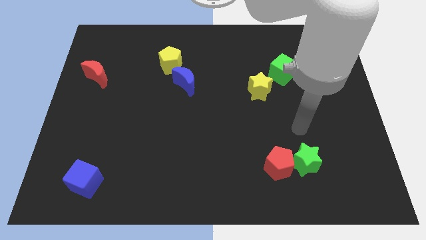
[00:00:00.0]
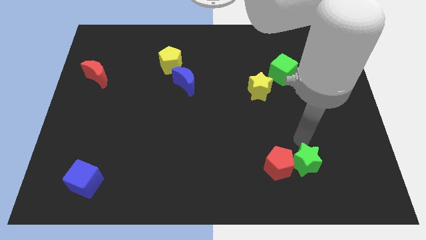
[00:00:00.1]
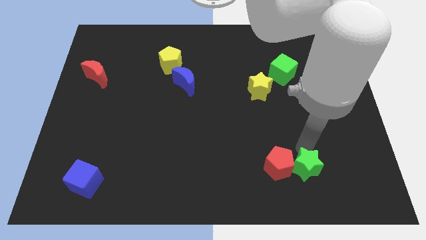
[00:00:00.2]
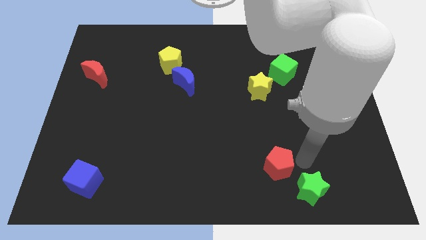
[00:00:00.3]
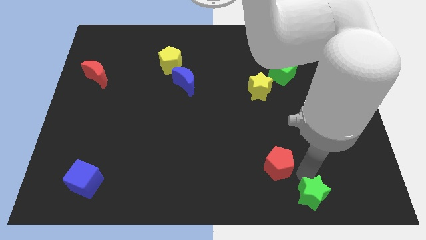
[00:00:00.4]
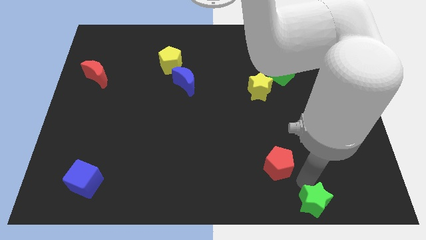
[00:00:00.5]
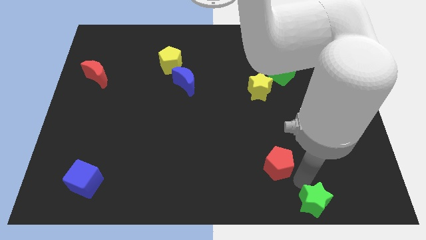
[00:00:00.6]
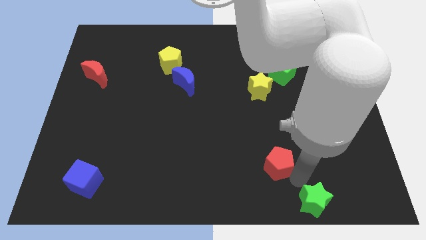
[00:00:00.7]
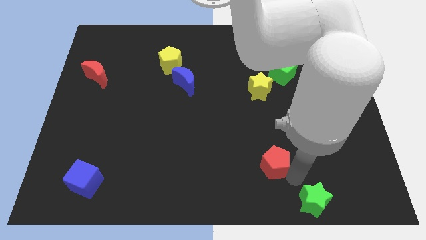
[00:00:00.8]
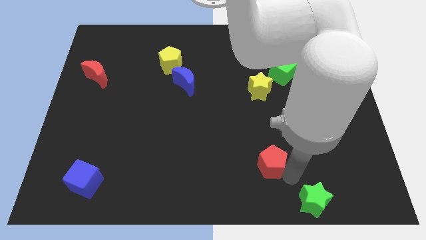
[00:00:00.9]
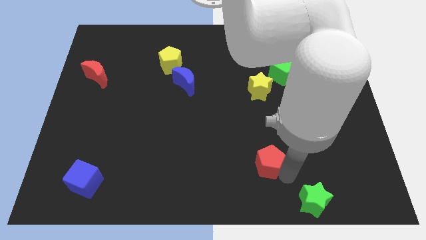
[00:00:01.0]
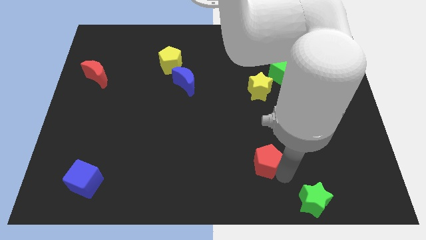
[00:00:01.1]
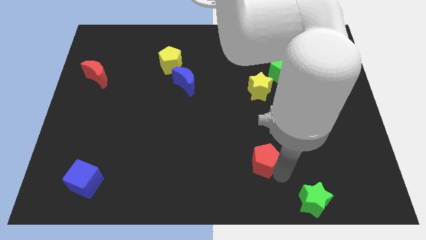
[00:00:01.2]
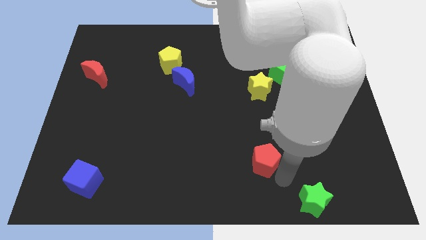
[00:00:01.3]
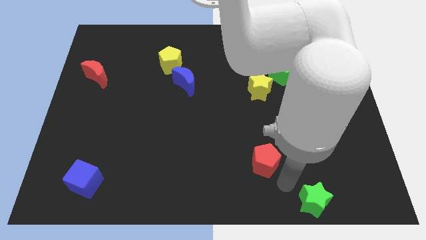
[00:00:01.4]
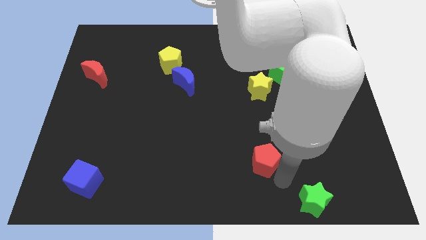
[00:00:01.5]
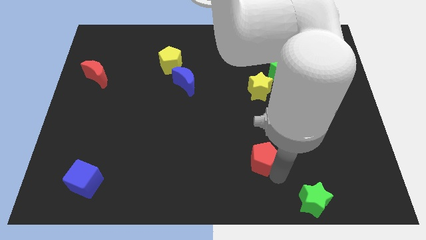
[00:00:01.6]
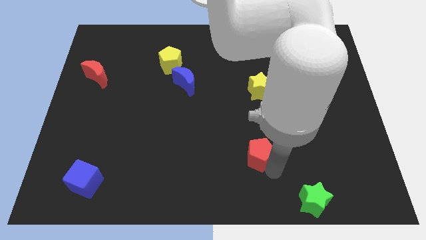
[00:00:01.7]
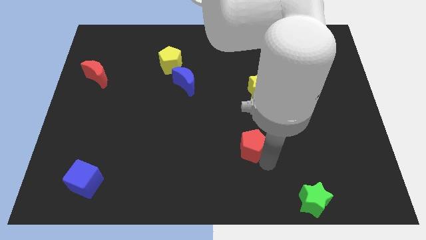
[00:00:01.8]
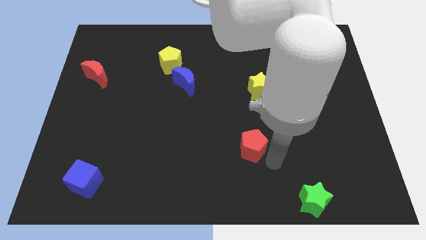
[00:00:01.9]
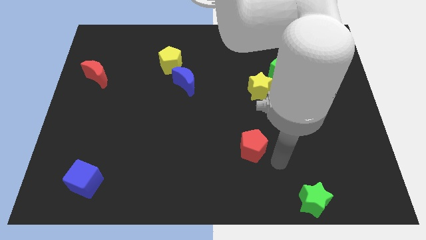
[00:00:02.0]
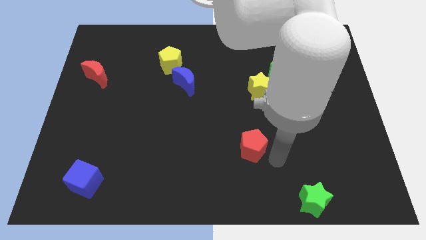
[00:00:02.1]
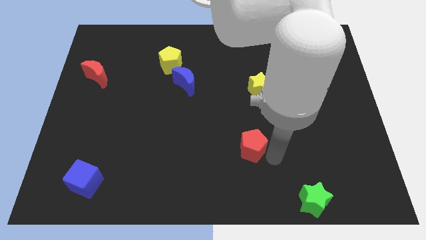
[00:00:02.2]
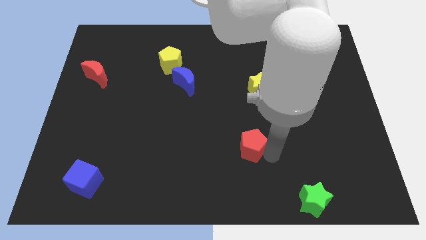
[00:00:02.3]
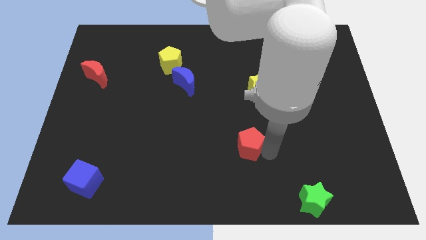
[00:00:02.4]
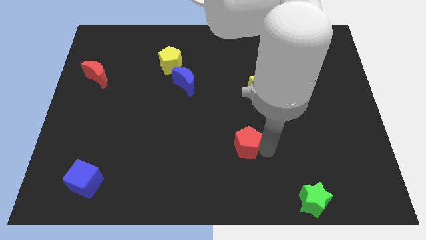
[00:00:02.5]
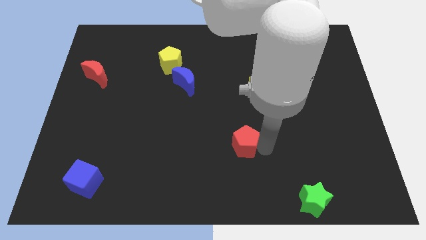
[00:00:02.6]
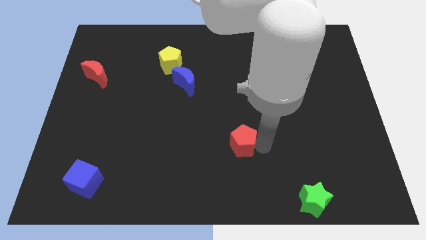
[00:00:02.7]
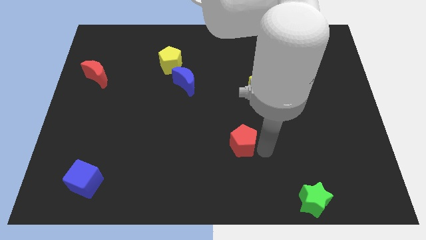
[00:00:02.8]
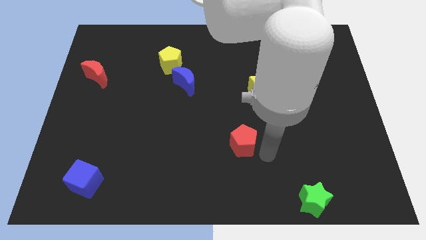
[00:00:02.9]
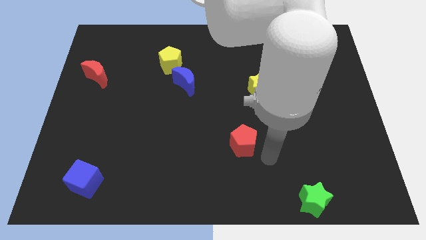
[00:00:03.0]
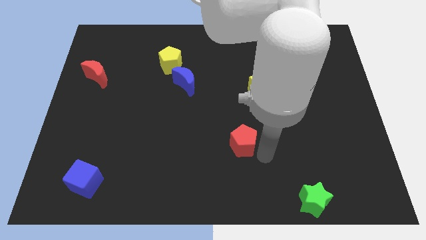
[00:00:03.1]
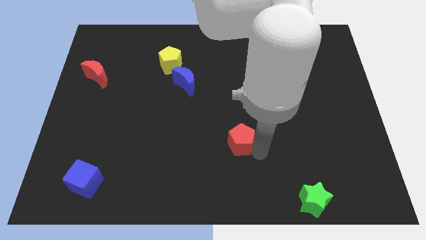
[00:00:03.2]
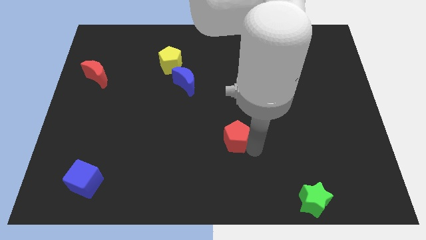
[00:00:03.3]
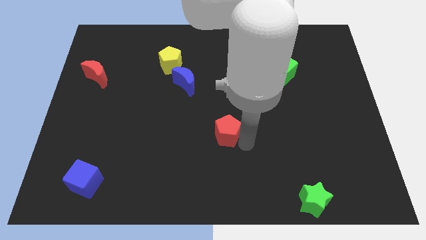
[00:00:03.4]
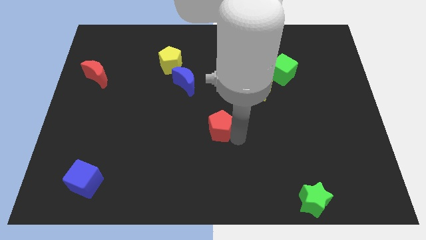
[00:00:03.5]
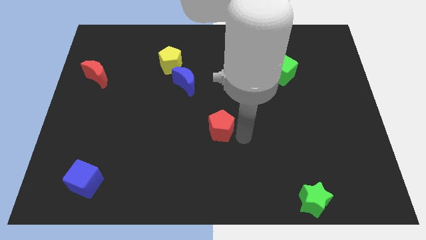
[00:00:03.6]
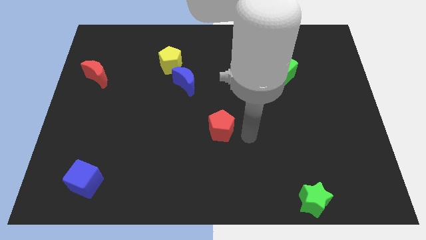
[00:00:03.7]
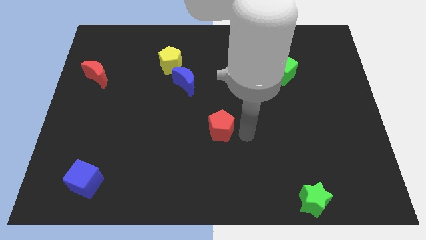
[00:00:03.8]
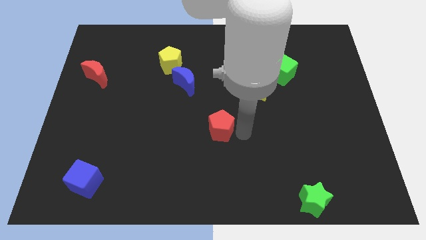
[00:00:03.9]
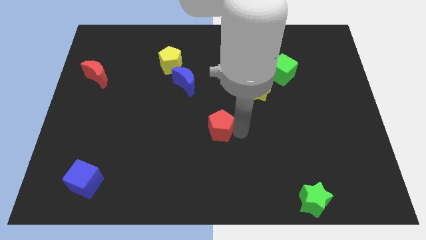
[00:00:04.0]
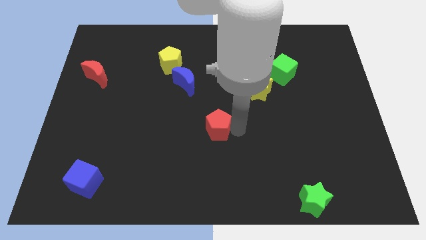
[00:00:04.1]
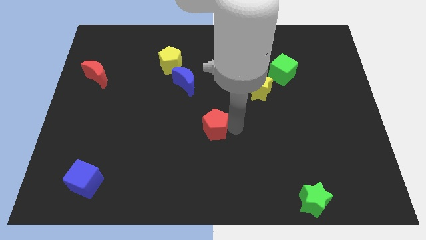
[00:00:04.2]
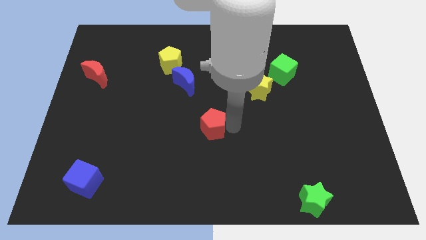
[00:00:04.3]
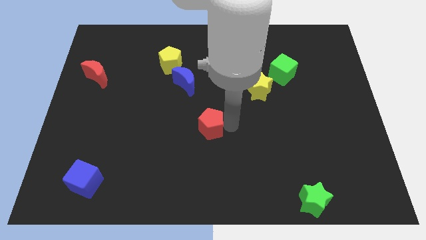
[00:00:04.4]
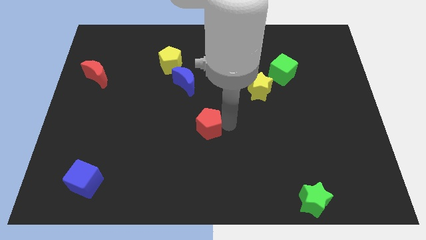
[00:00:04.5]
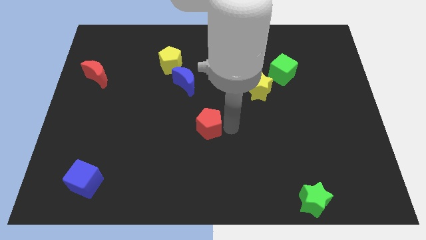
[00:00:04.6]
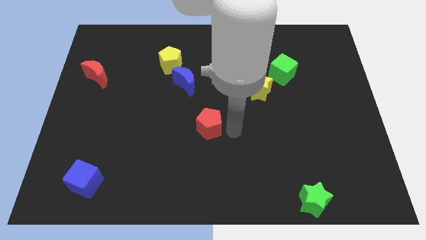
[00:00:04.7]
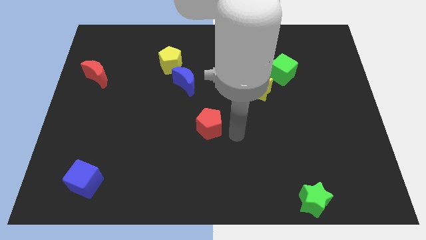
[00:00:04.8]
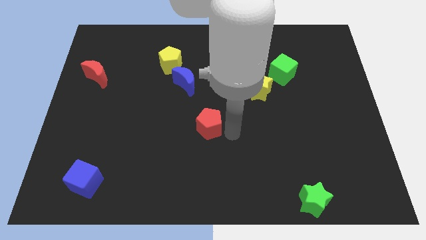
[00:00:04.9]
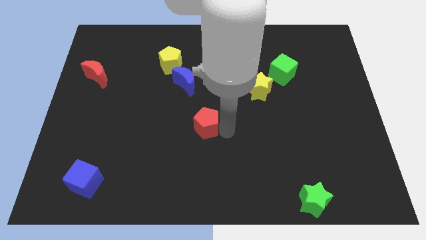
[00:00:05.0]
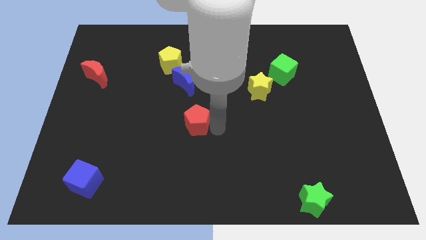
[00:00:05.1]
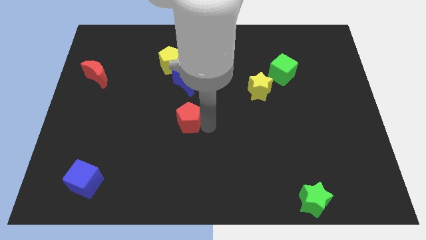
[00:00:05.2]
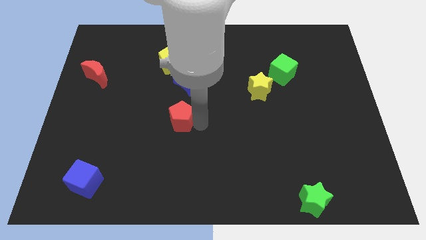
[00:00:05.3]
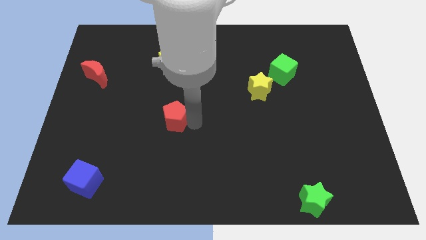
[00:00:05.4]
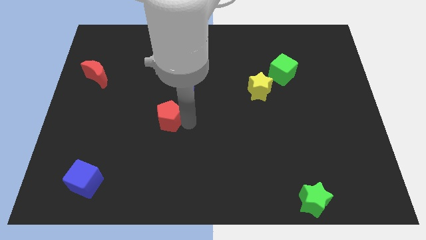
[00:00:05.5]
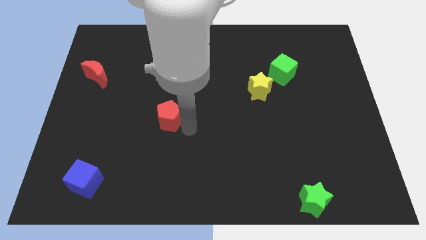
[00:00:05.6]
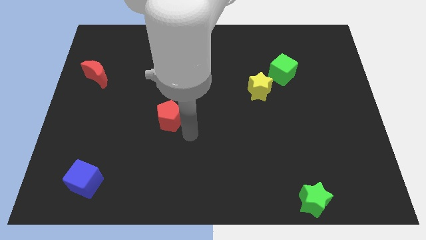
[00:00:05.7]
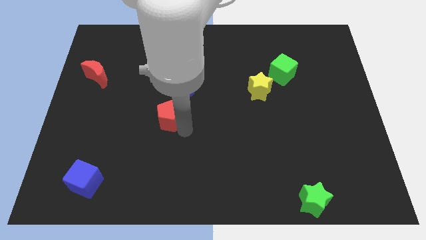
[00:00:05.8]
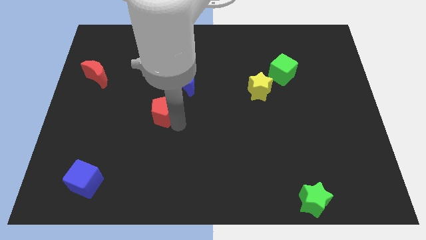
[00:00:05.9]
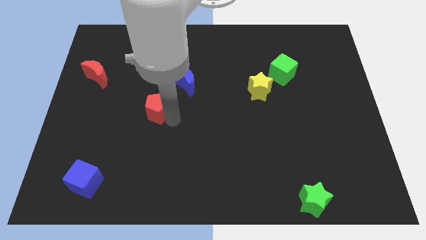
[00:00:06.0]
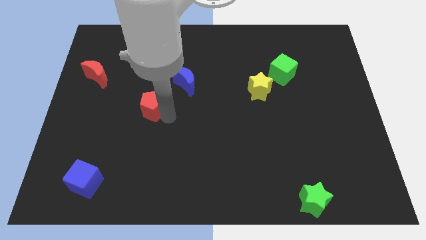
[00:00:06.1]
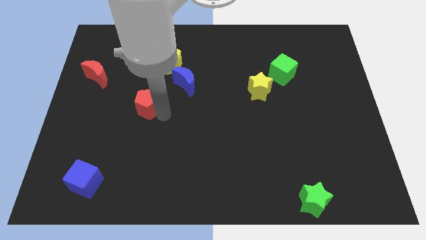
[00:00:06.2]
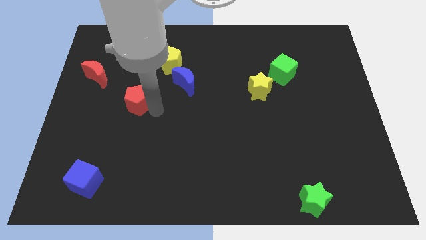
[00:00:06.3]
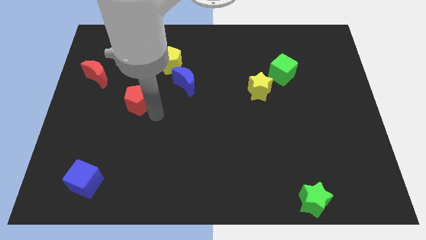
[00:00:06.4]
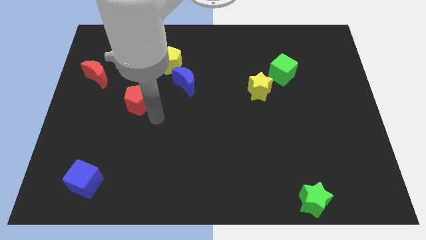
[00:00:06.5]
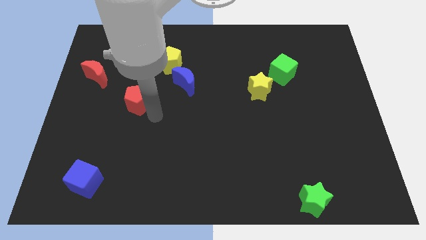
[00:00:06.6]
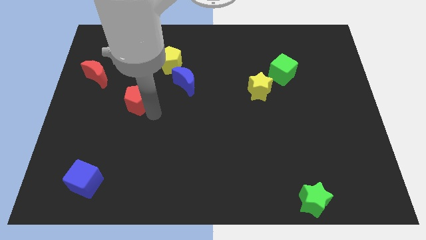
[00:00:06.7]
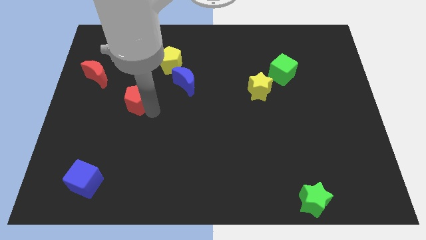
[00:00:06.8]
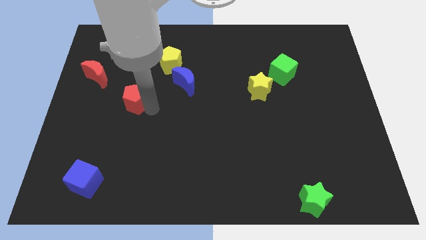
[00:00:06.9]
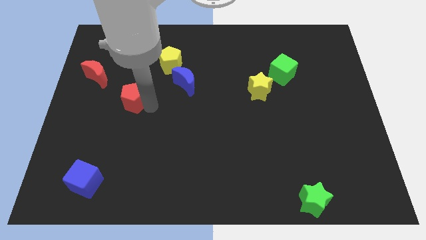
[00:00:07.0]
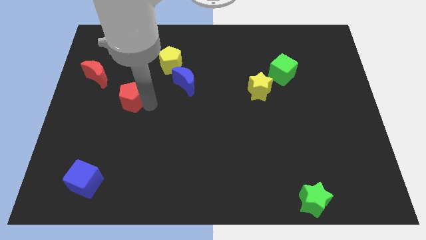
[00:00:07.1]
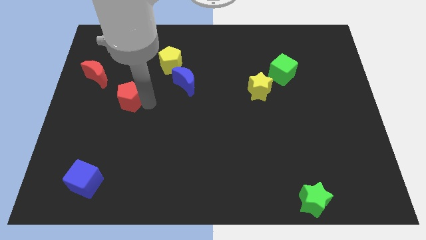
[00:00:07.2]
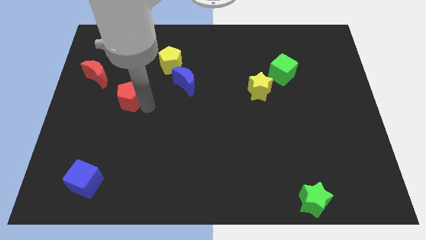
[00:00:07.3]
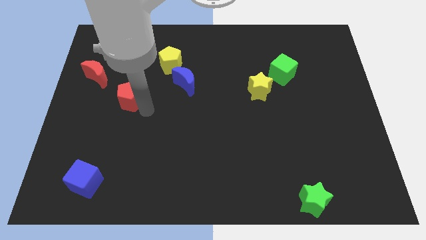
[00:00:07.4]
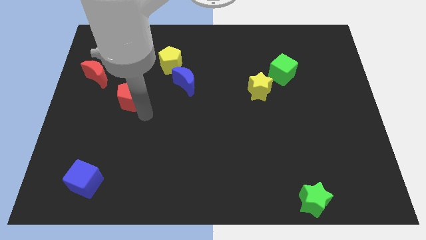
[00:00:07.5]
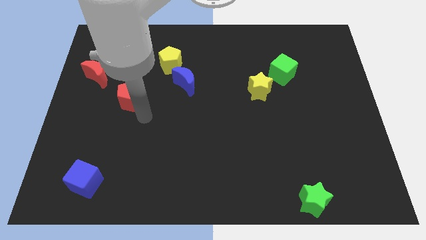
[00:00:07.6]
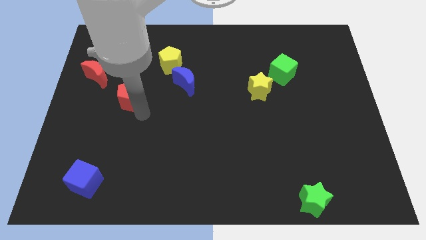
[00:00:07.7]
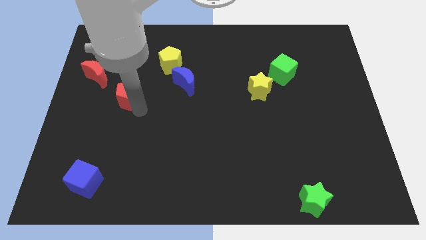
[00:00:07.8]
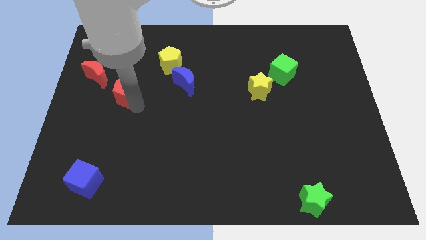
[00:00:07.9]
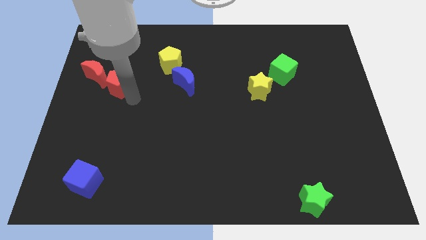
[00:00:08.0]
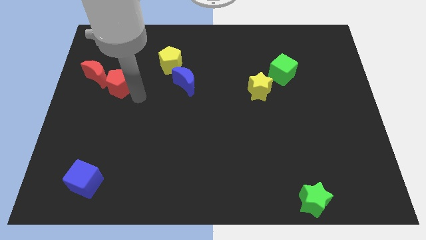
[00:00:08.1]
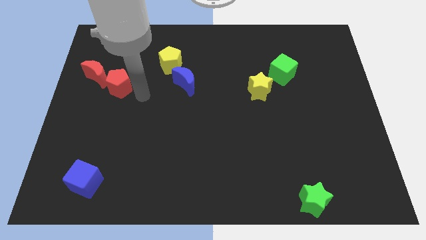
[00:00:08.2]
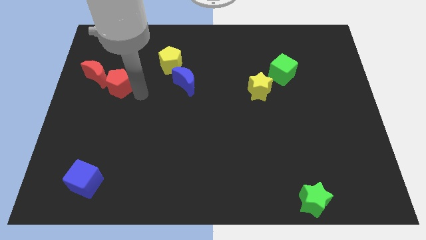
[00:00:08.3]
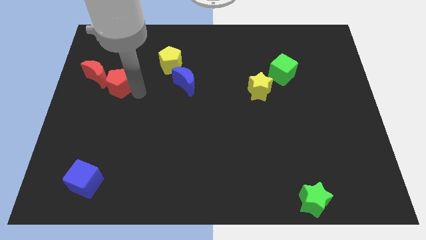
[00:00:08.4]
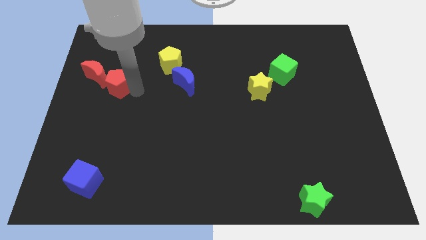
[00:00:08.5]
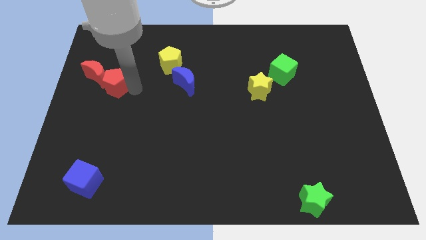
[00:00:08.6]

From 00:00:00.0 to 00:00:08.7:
slide the red pentagon next to the red moon
